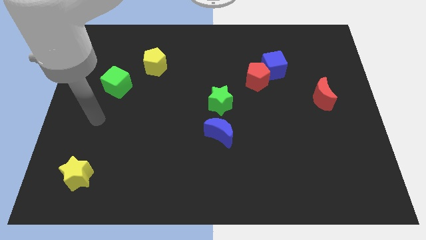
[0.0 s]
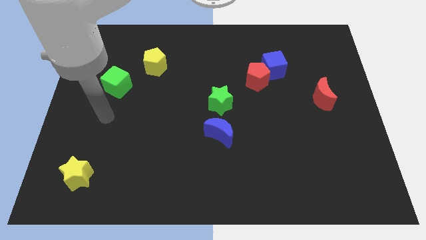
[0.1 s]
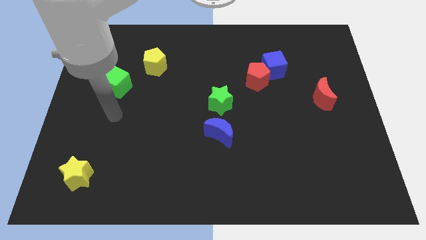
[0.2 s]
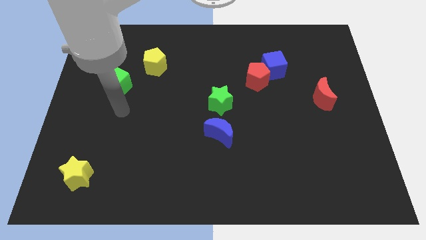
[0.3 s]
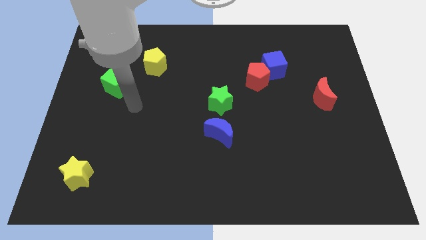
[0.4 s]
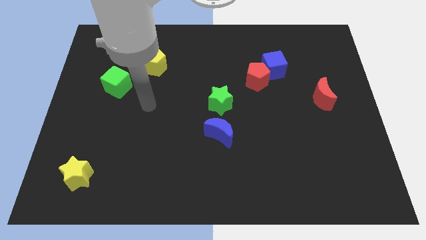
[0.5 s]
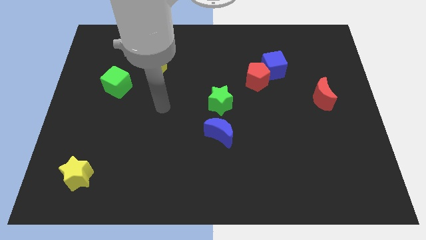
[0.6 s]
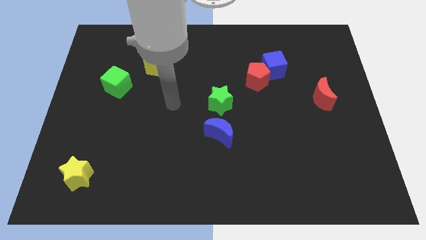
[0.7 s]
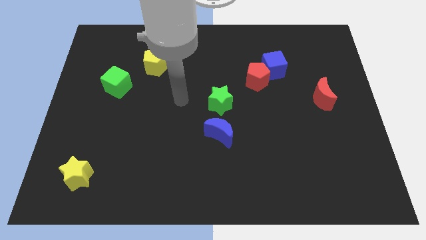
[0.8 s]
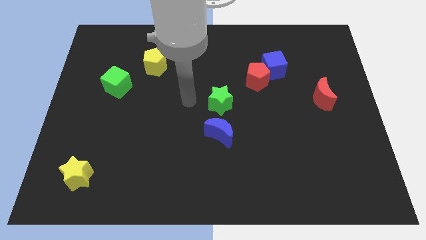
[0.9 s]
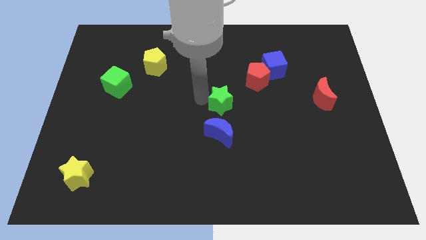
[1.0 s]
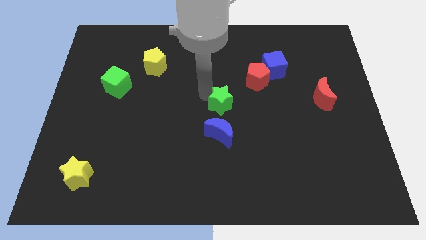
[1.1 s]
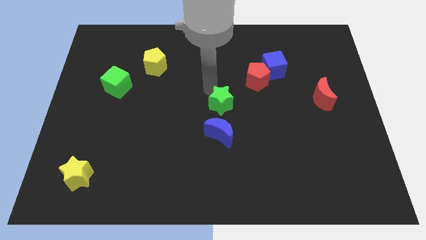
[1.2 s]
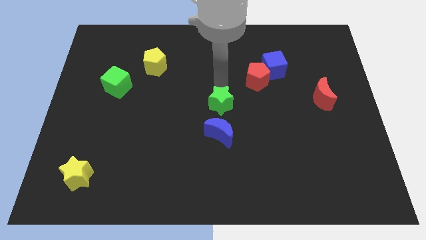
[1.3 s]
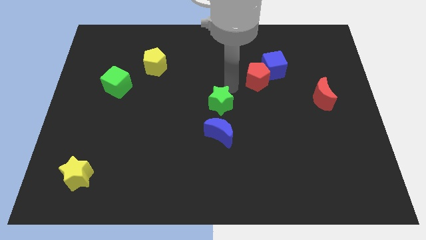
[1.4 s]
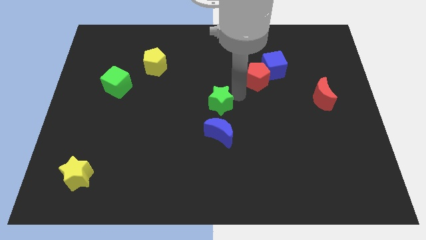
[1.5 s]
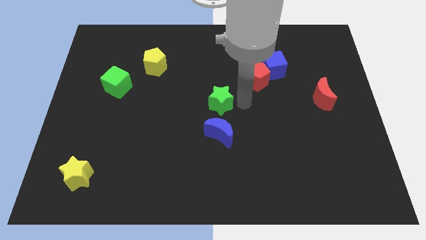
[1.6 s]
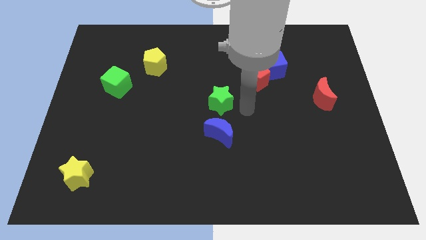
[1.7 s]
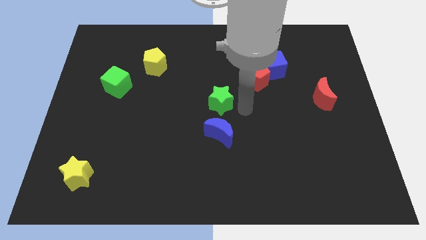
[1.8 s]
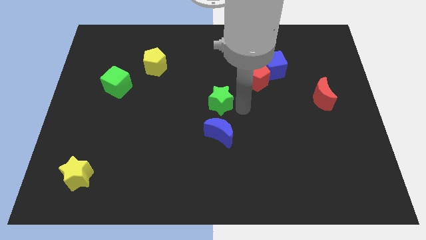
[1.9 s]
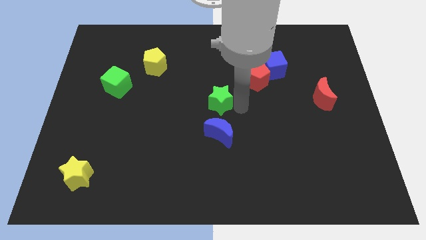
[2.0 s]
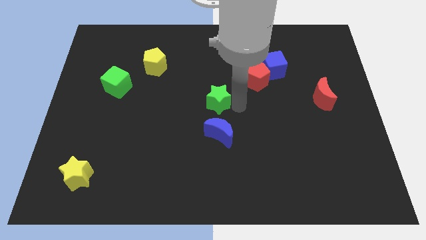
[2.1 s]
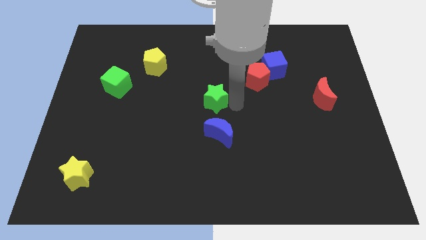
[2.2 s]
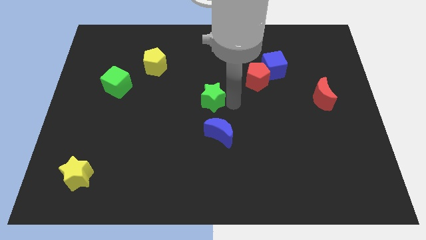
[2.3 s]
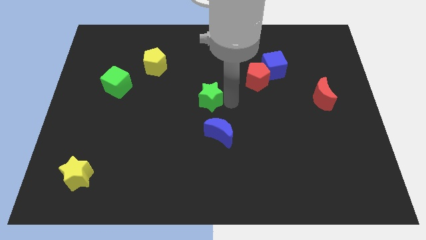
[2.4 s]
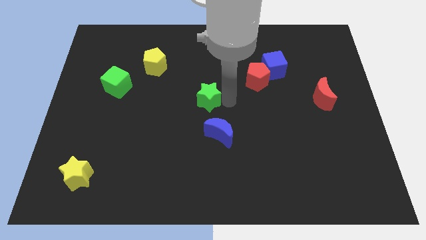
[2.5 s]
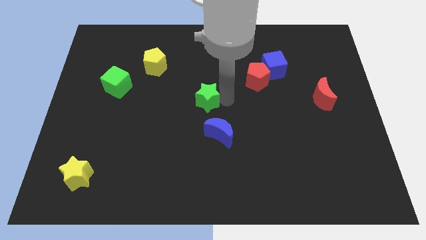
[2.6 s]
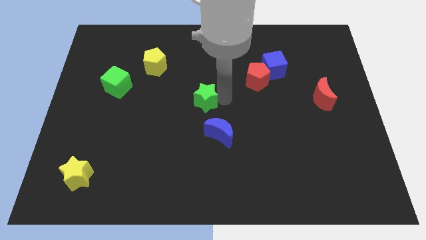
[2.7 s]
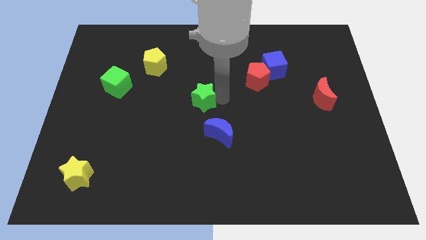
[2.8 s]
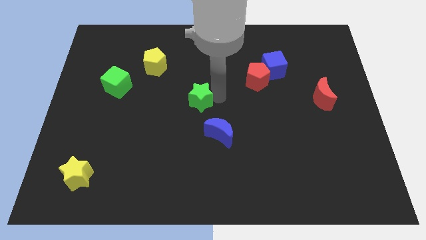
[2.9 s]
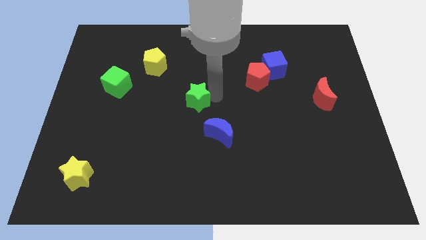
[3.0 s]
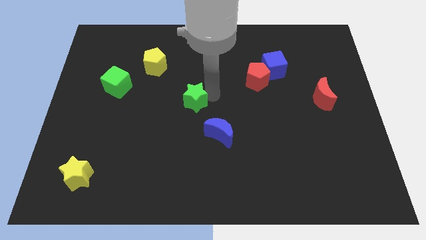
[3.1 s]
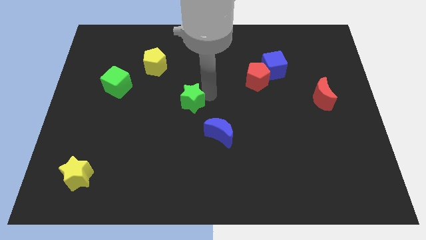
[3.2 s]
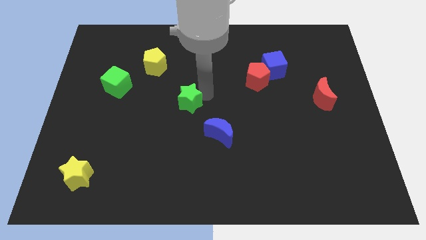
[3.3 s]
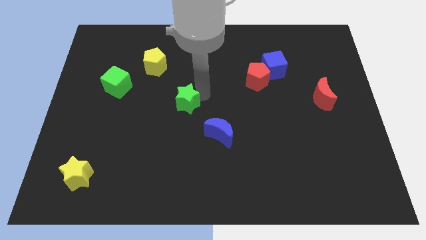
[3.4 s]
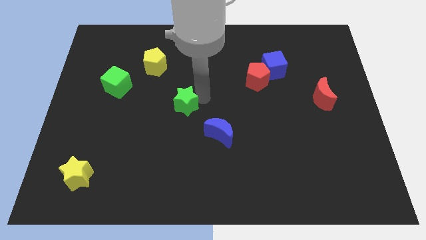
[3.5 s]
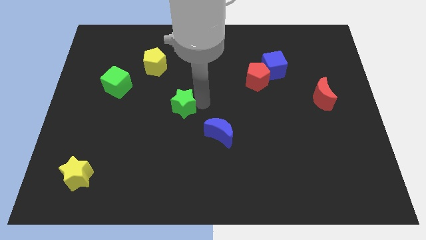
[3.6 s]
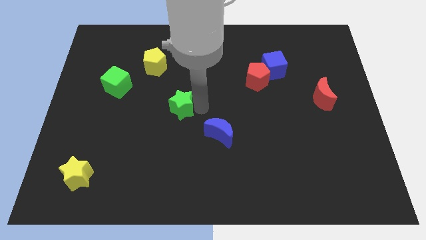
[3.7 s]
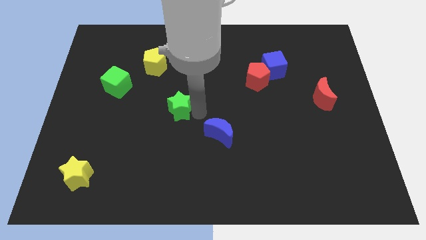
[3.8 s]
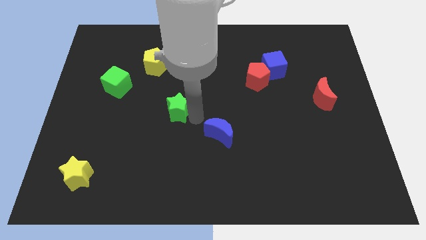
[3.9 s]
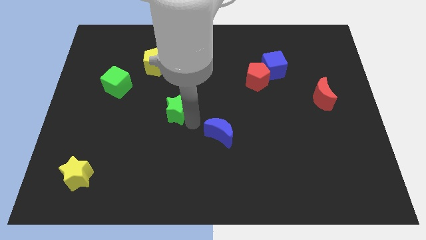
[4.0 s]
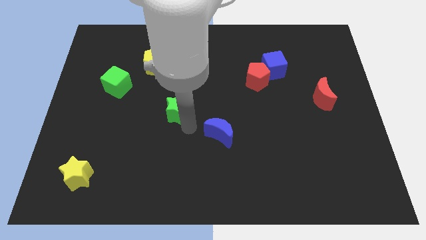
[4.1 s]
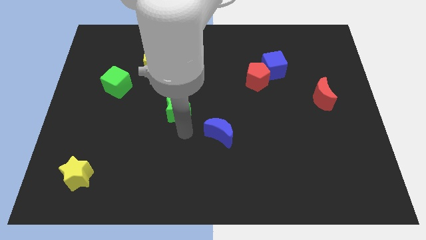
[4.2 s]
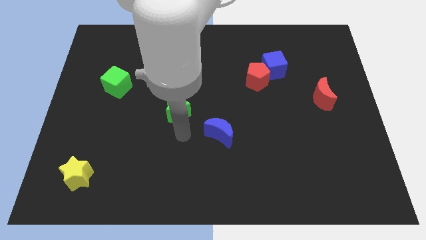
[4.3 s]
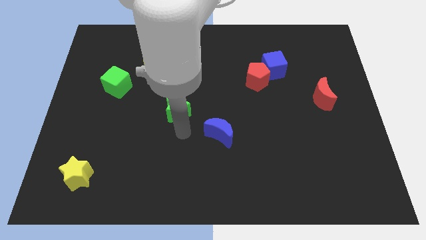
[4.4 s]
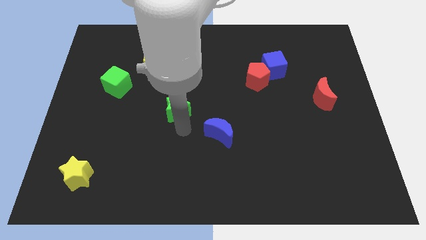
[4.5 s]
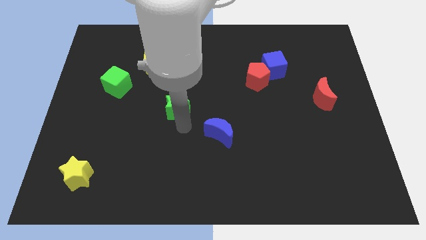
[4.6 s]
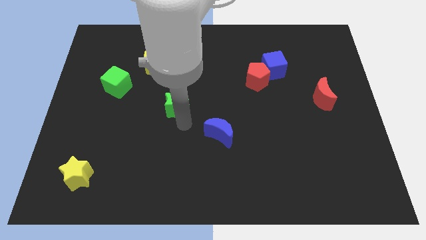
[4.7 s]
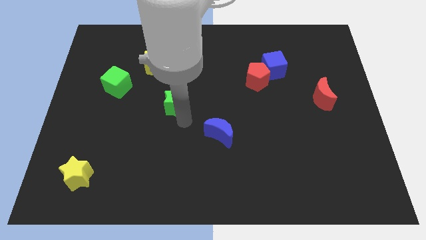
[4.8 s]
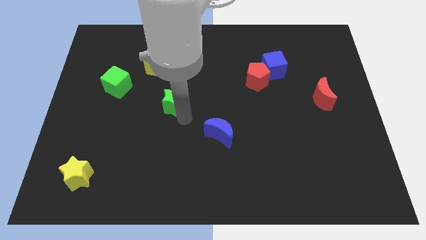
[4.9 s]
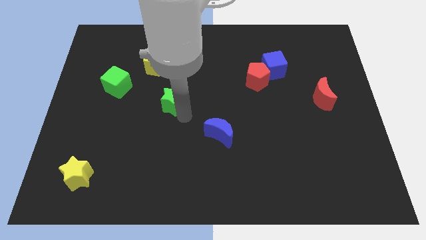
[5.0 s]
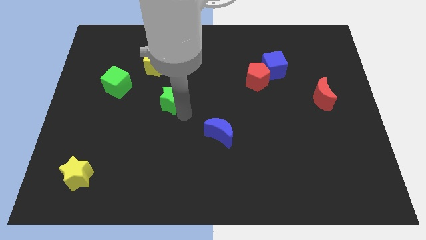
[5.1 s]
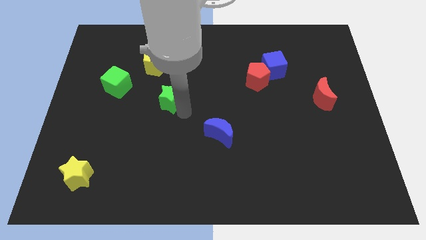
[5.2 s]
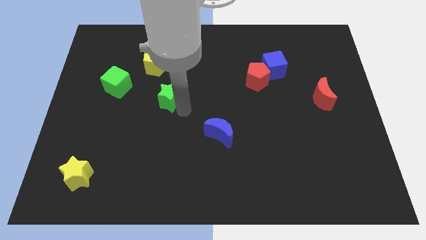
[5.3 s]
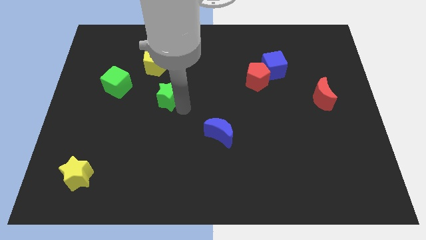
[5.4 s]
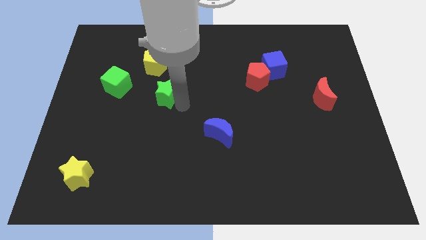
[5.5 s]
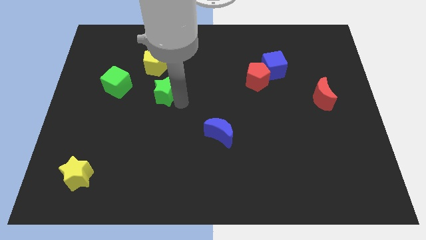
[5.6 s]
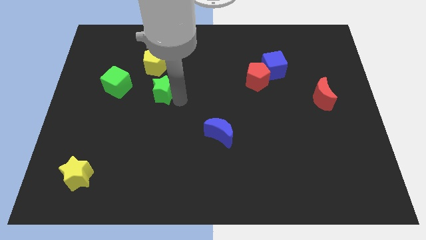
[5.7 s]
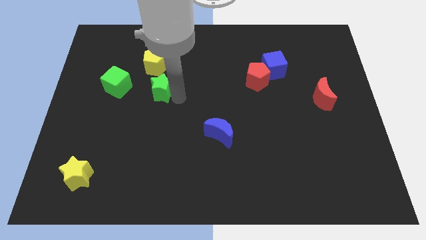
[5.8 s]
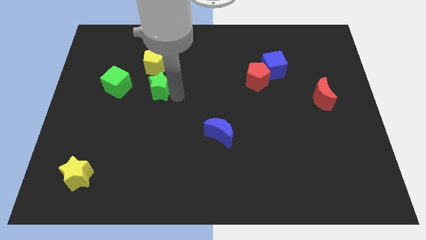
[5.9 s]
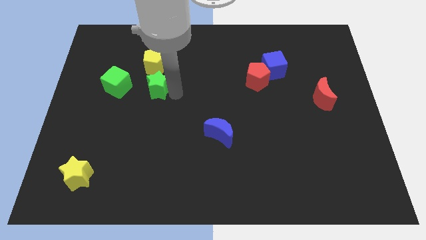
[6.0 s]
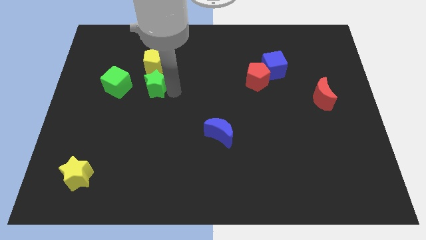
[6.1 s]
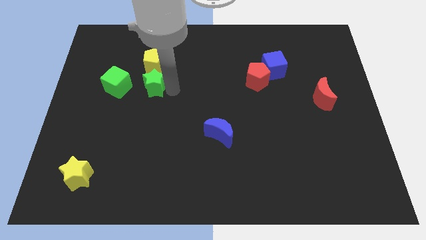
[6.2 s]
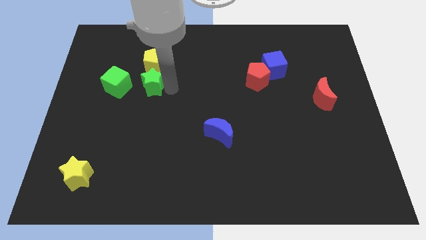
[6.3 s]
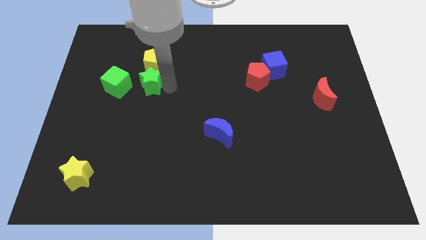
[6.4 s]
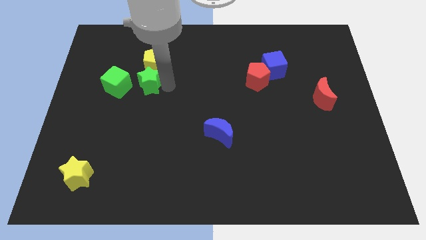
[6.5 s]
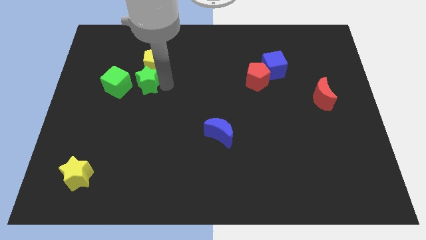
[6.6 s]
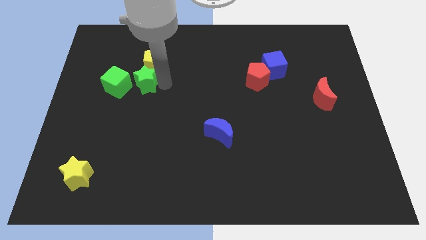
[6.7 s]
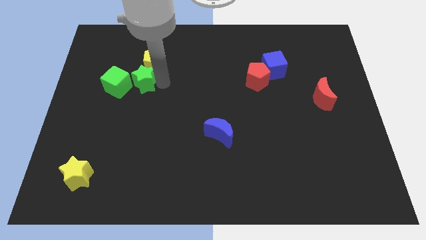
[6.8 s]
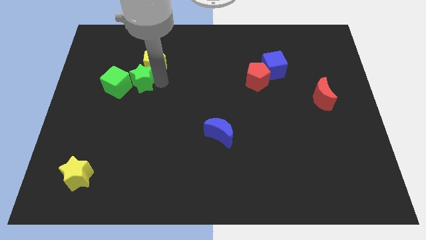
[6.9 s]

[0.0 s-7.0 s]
slide the green star to the green cube

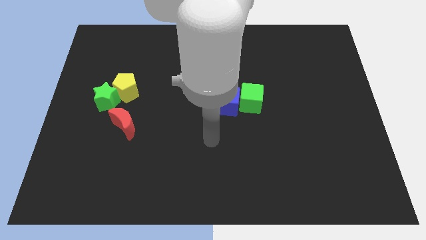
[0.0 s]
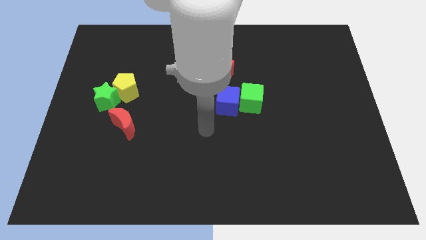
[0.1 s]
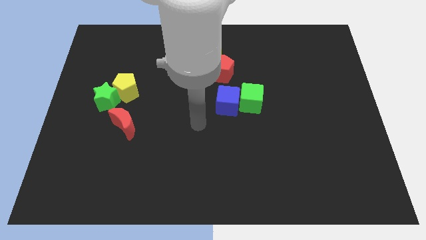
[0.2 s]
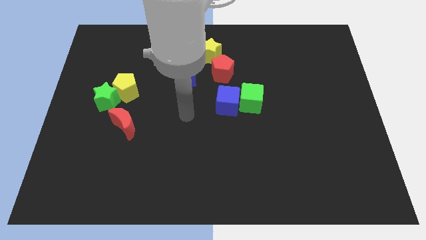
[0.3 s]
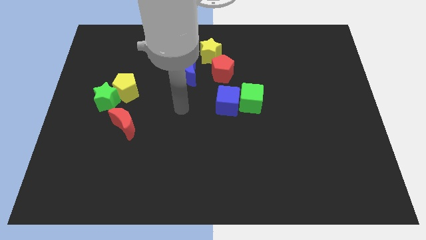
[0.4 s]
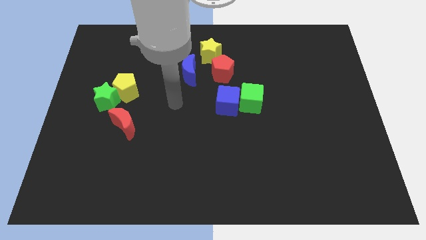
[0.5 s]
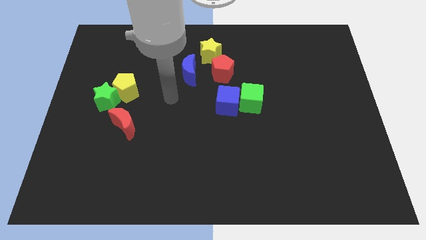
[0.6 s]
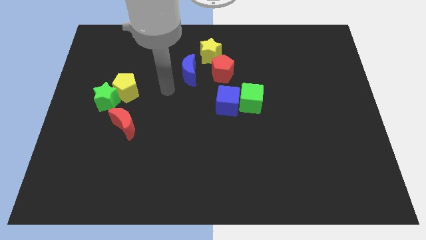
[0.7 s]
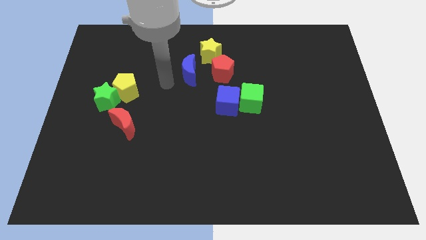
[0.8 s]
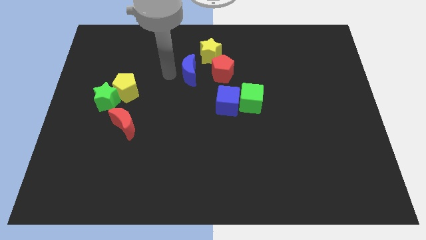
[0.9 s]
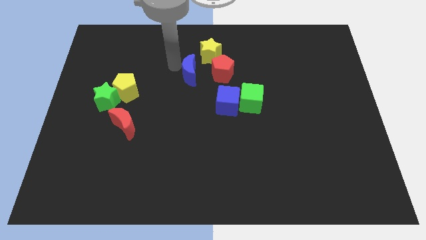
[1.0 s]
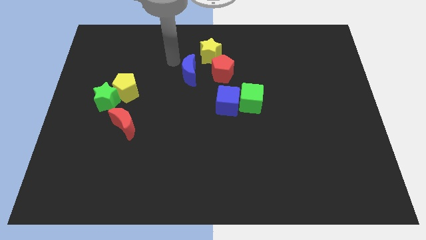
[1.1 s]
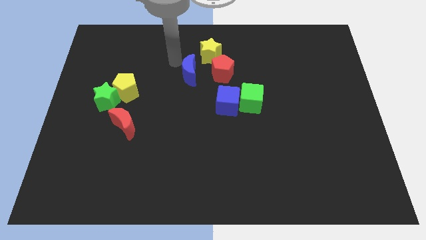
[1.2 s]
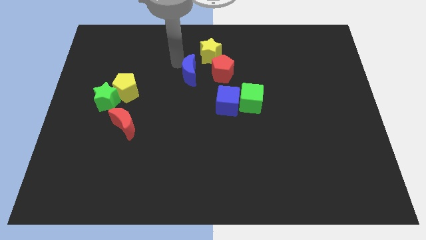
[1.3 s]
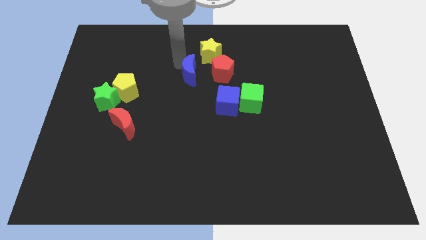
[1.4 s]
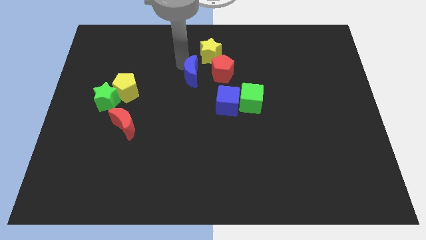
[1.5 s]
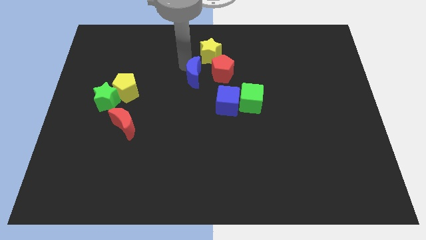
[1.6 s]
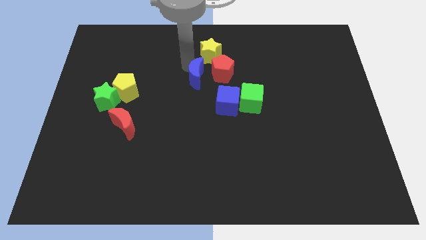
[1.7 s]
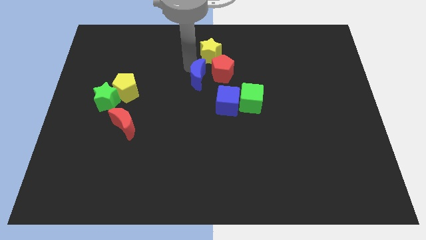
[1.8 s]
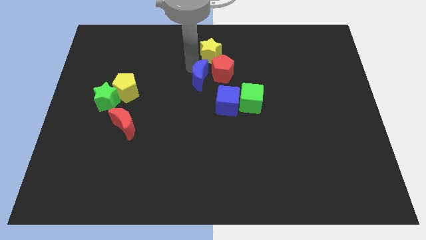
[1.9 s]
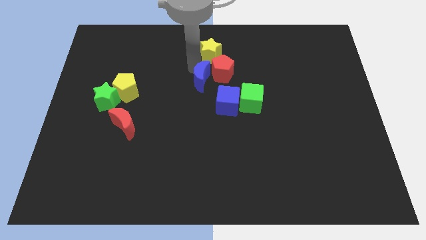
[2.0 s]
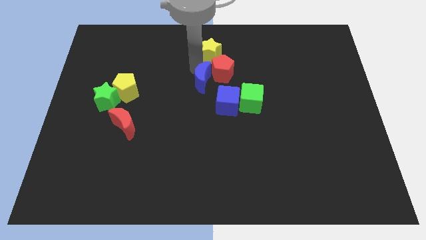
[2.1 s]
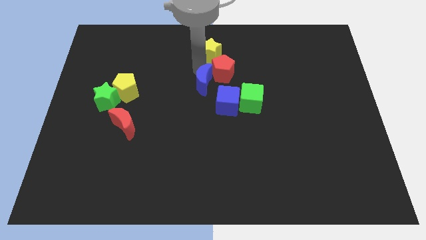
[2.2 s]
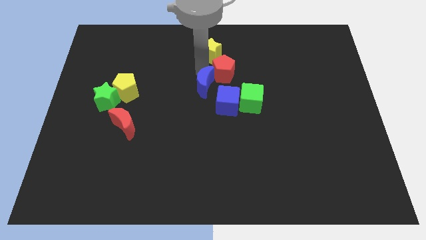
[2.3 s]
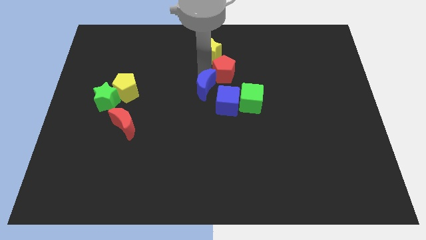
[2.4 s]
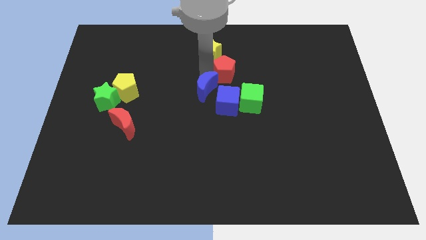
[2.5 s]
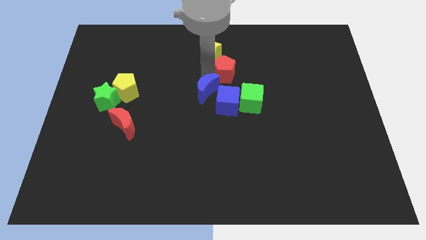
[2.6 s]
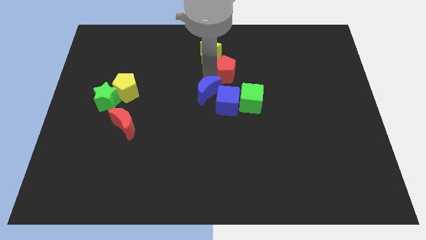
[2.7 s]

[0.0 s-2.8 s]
move the blue moon to the blue cube
